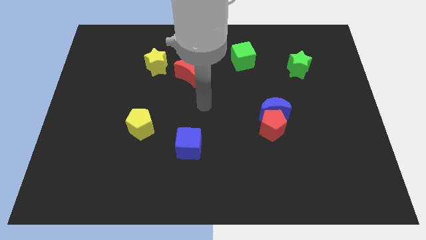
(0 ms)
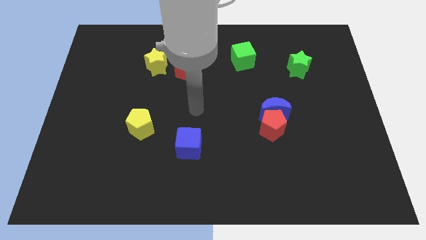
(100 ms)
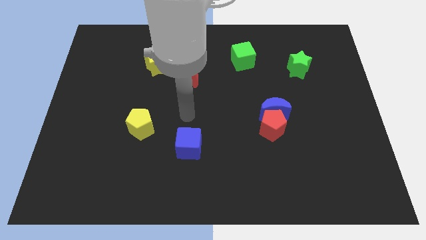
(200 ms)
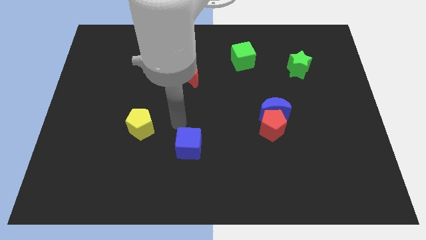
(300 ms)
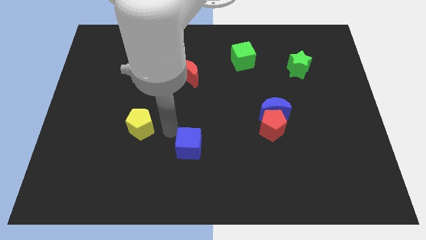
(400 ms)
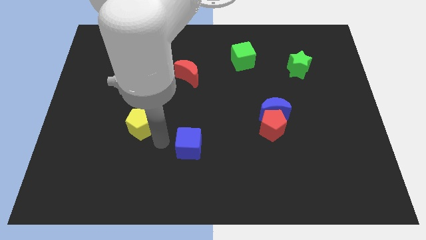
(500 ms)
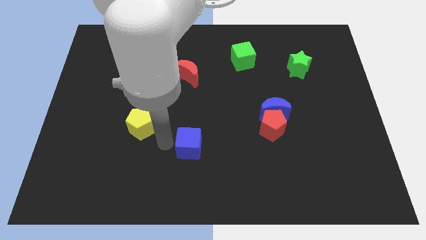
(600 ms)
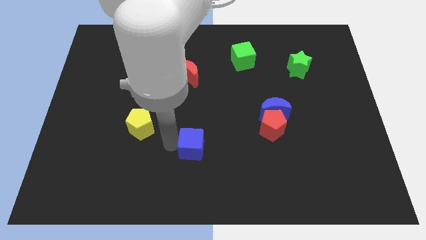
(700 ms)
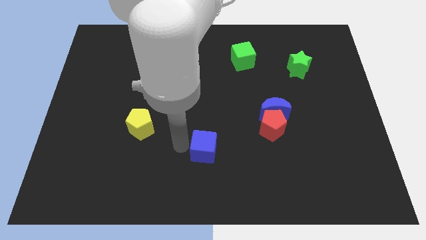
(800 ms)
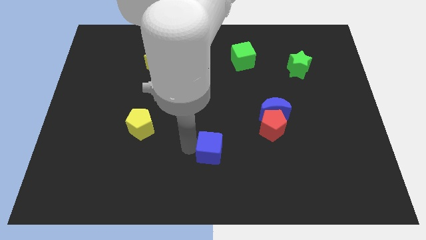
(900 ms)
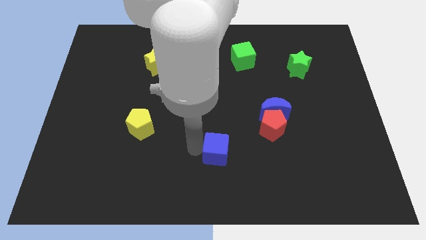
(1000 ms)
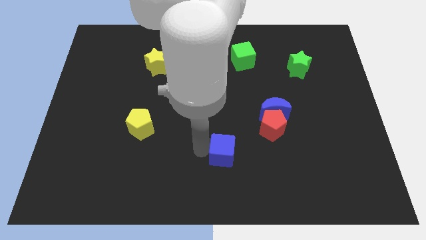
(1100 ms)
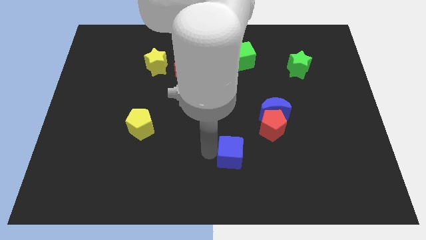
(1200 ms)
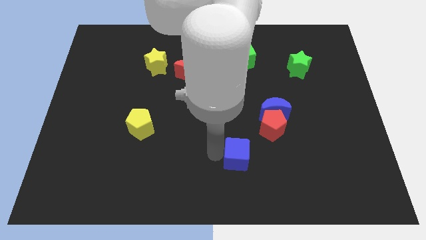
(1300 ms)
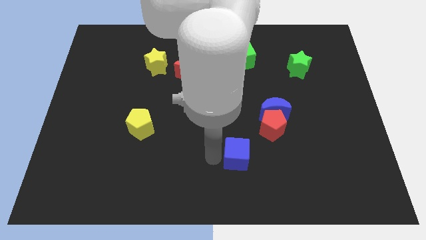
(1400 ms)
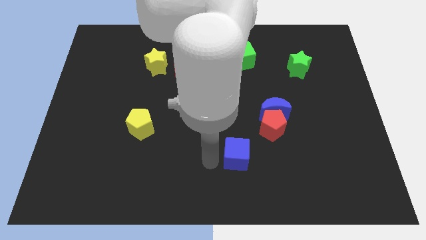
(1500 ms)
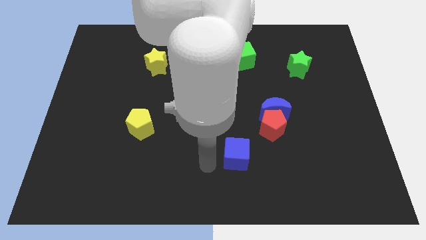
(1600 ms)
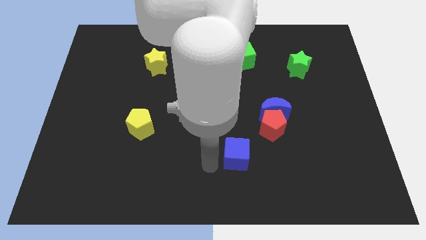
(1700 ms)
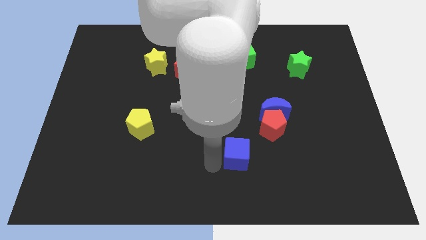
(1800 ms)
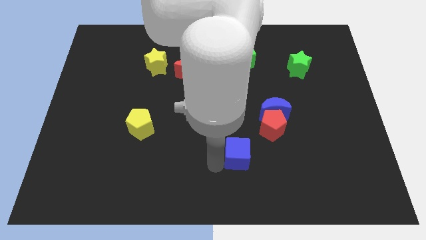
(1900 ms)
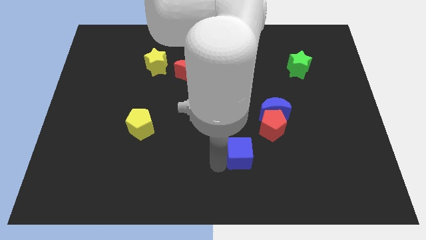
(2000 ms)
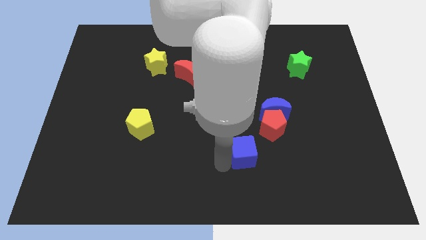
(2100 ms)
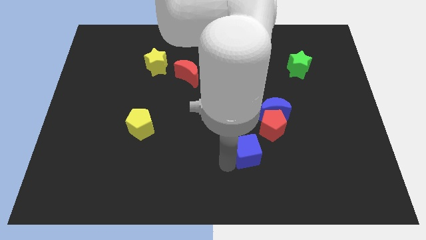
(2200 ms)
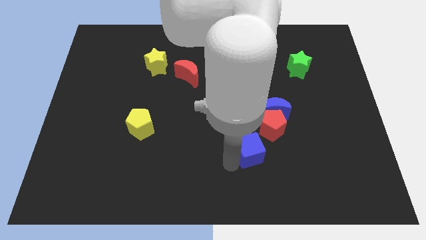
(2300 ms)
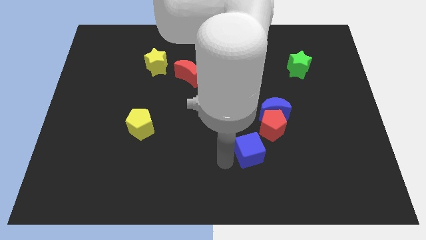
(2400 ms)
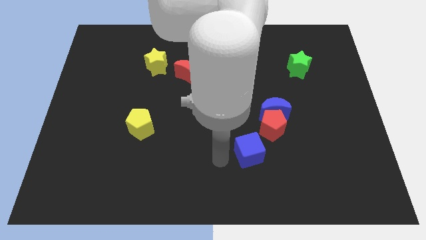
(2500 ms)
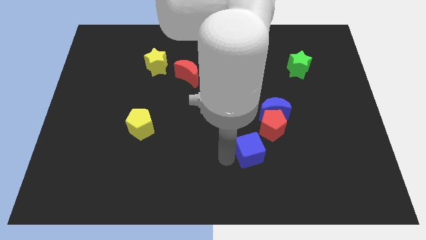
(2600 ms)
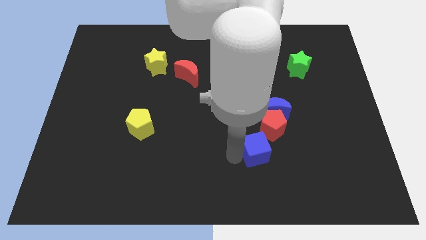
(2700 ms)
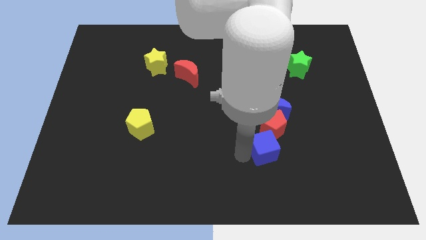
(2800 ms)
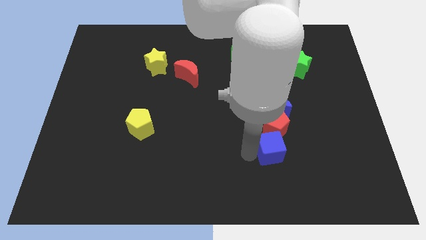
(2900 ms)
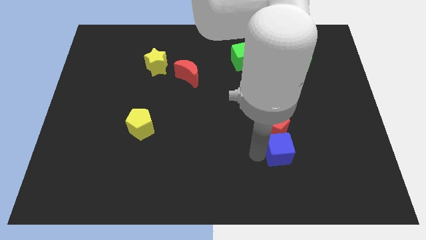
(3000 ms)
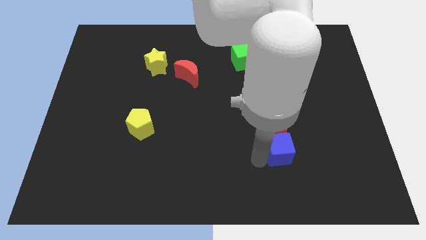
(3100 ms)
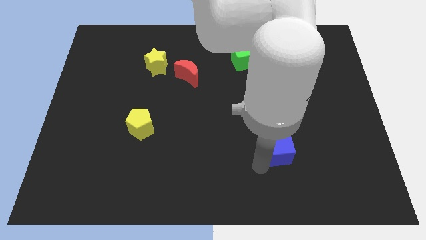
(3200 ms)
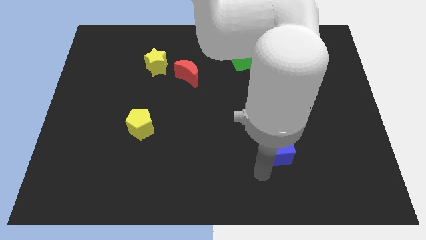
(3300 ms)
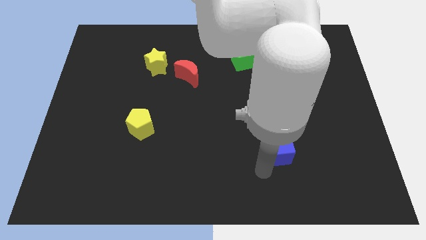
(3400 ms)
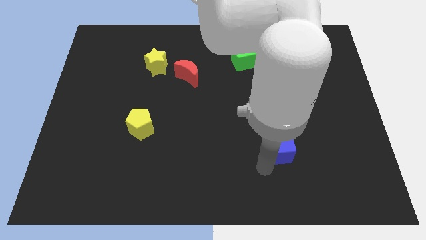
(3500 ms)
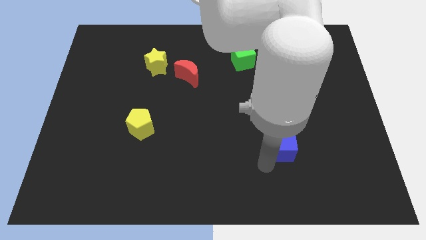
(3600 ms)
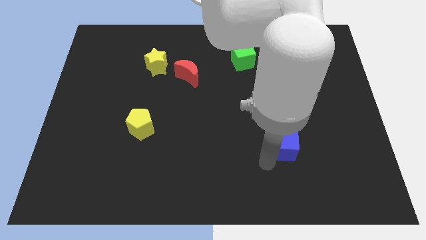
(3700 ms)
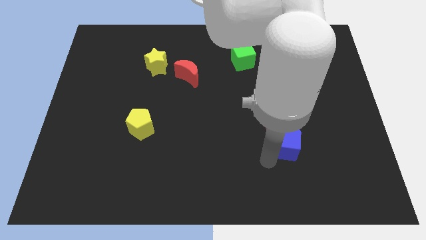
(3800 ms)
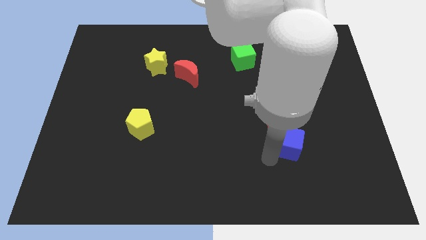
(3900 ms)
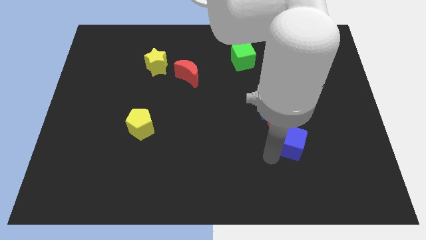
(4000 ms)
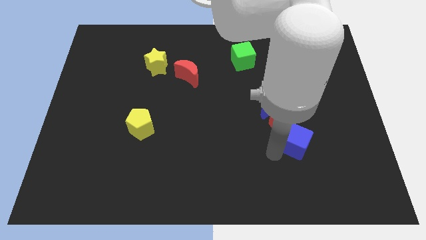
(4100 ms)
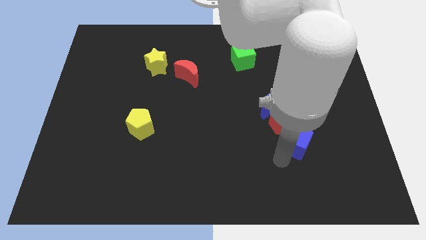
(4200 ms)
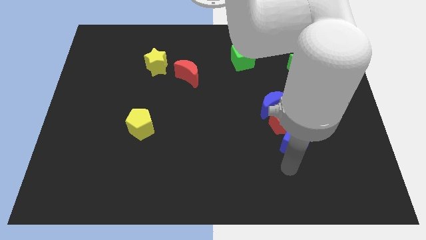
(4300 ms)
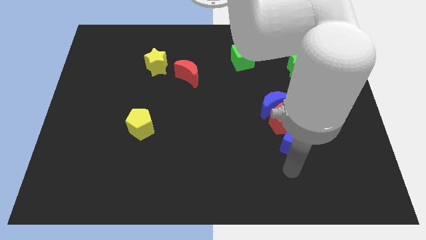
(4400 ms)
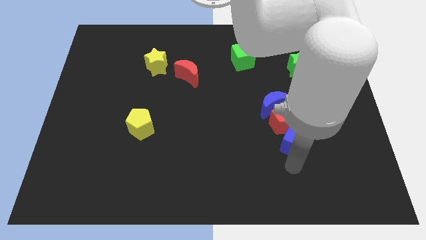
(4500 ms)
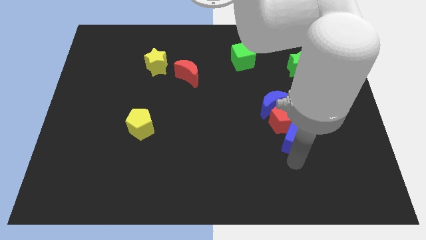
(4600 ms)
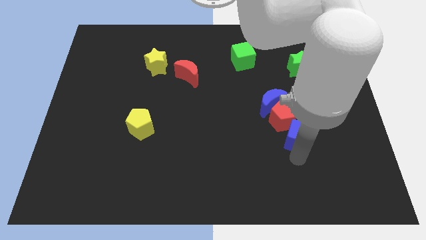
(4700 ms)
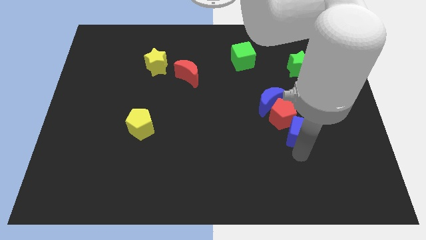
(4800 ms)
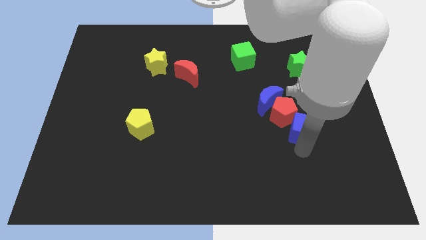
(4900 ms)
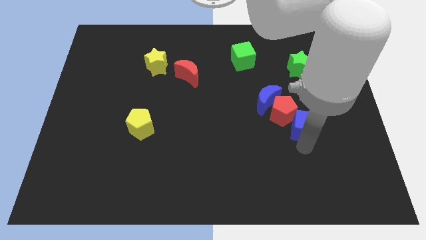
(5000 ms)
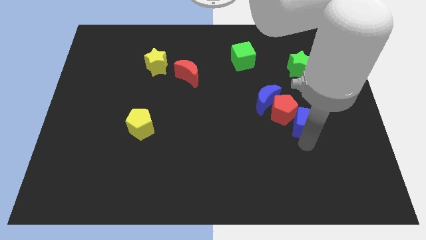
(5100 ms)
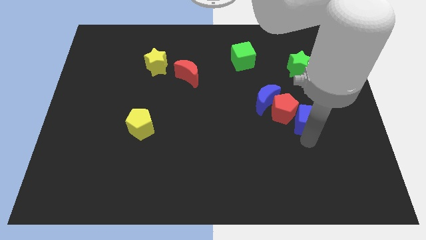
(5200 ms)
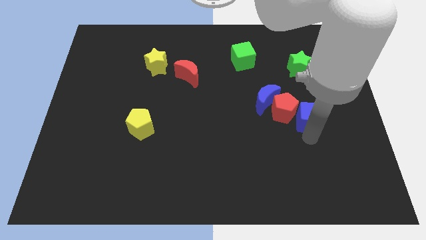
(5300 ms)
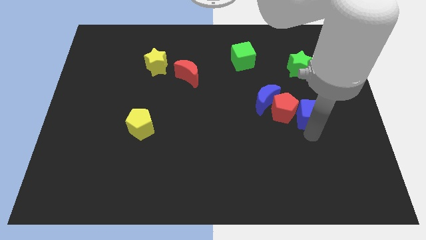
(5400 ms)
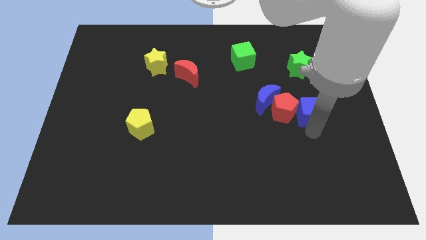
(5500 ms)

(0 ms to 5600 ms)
move the blue cube to the top right of the red pentagon
